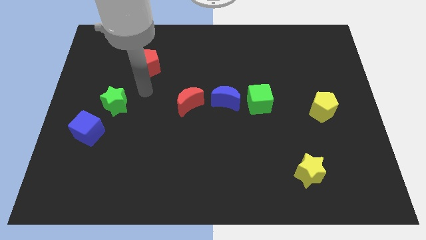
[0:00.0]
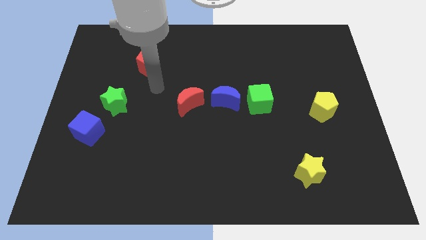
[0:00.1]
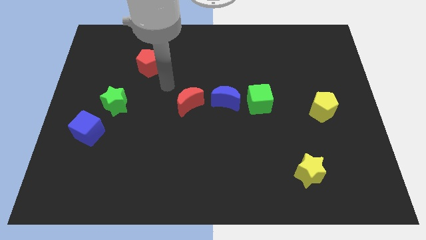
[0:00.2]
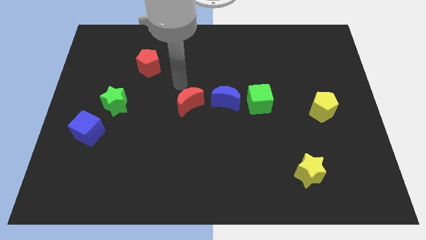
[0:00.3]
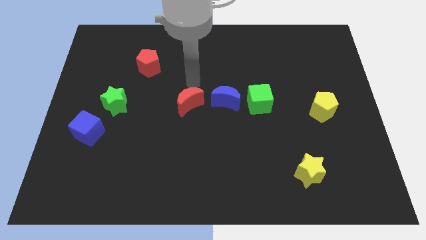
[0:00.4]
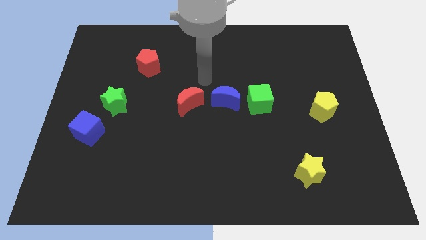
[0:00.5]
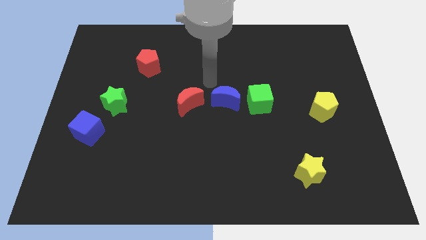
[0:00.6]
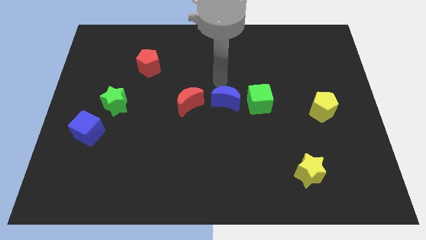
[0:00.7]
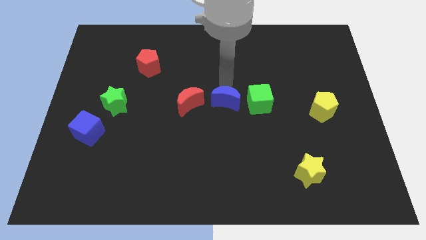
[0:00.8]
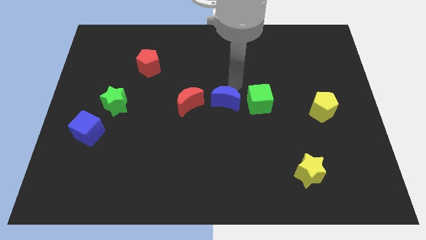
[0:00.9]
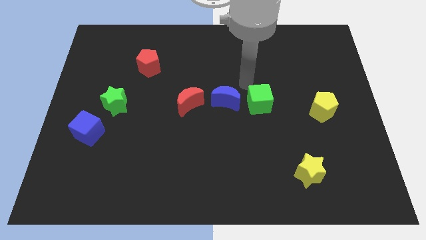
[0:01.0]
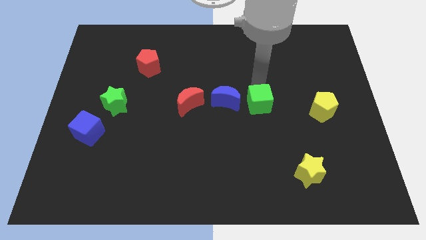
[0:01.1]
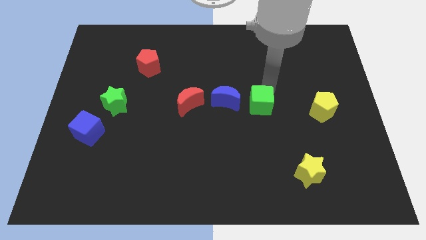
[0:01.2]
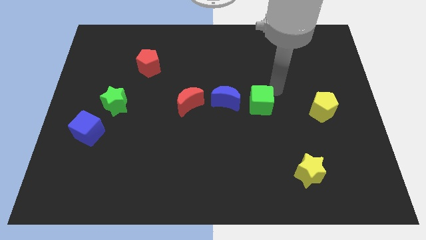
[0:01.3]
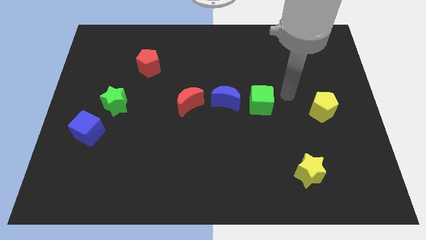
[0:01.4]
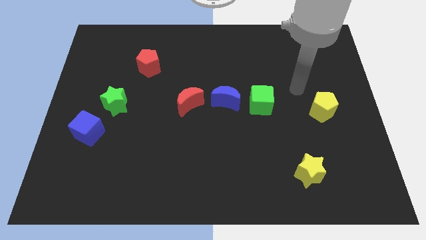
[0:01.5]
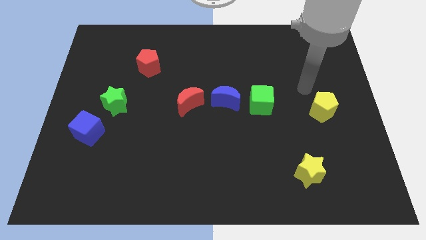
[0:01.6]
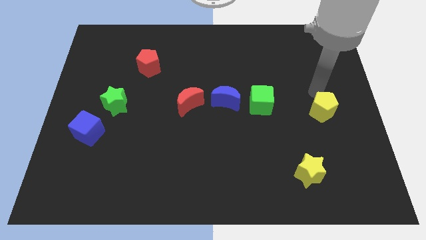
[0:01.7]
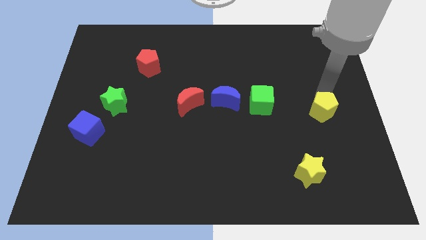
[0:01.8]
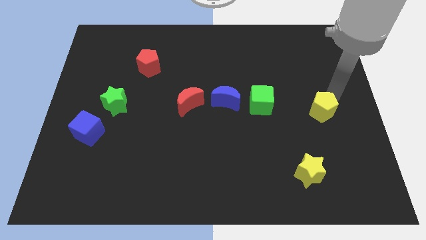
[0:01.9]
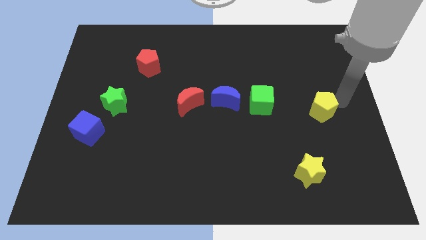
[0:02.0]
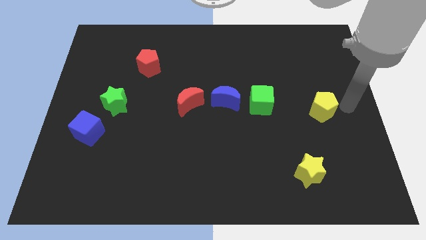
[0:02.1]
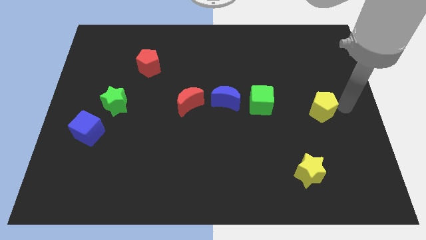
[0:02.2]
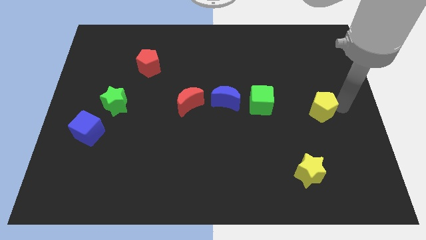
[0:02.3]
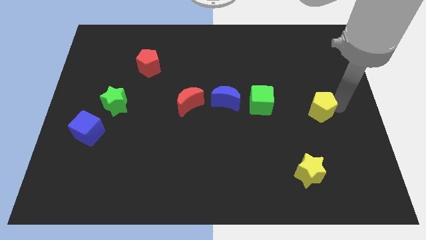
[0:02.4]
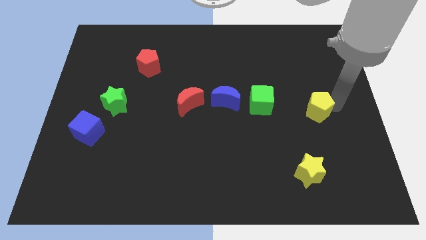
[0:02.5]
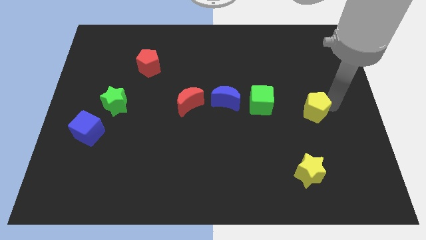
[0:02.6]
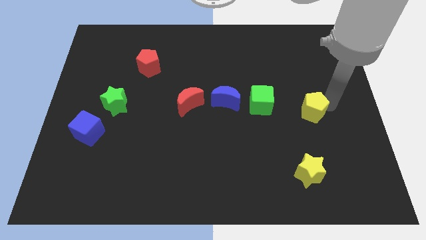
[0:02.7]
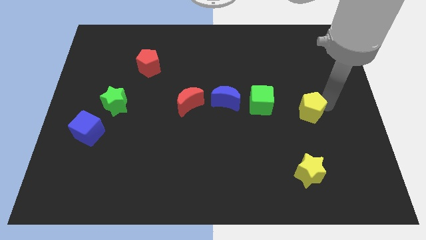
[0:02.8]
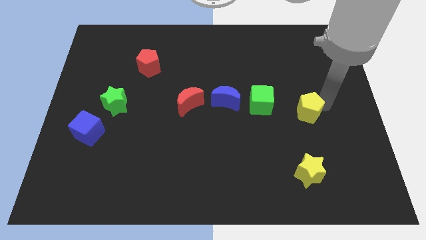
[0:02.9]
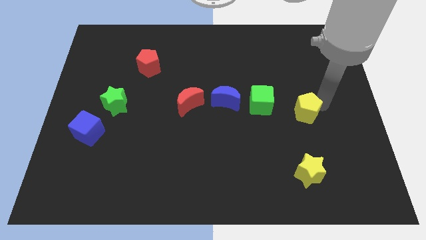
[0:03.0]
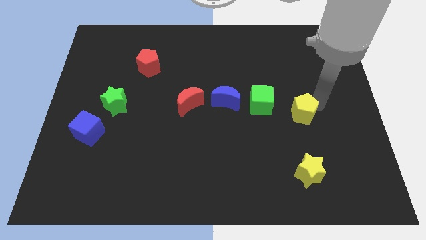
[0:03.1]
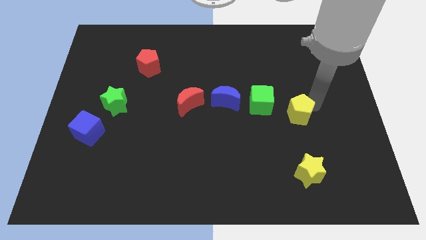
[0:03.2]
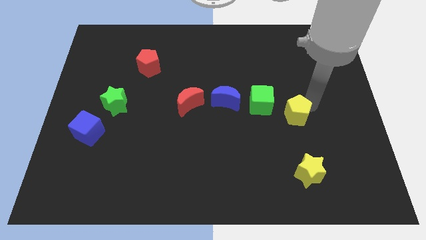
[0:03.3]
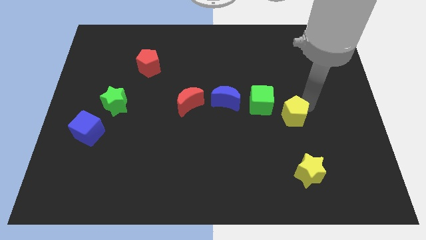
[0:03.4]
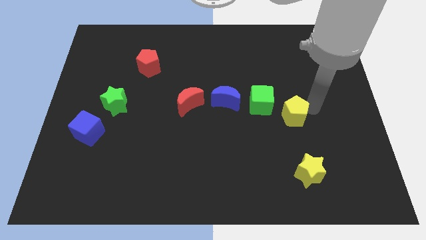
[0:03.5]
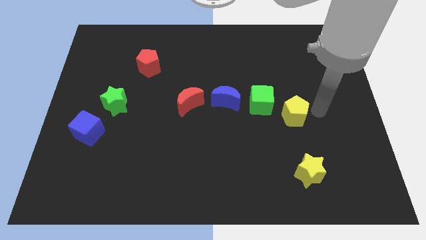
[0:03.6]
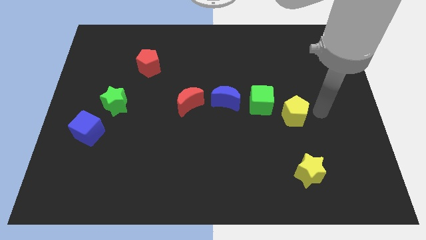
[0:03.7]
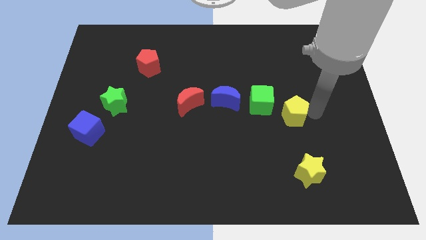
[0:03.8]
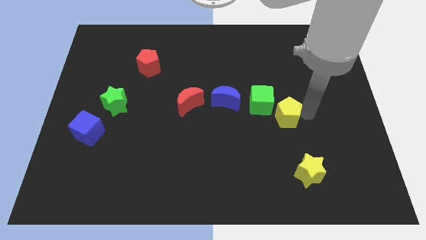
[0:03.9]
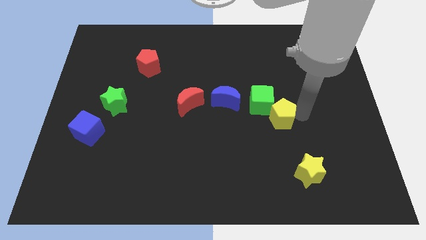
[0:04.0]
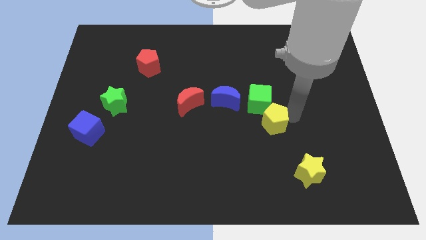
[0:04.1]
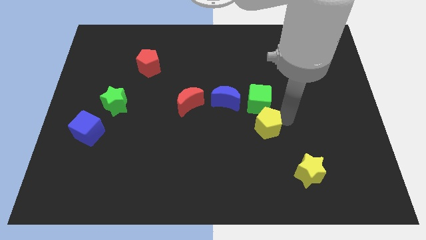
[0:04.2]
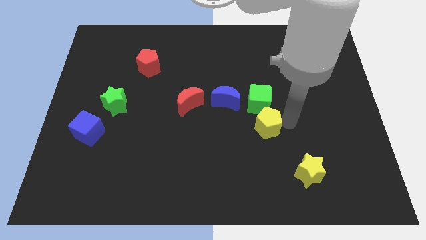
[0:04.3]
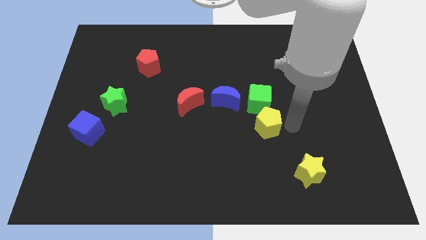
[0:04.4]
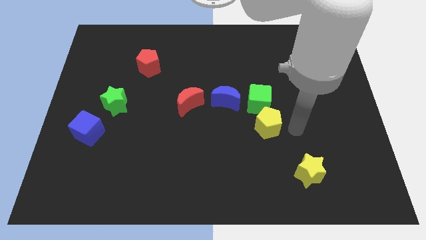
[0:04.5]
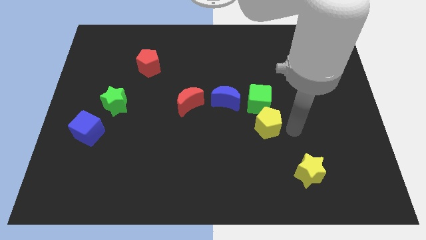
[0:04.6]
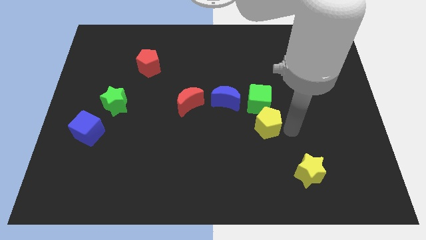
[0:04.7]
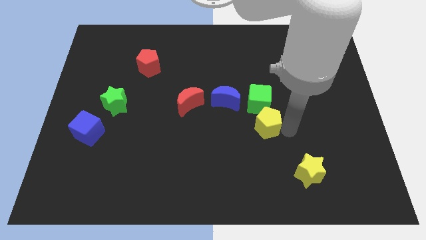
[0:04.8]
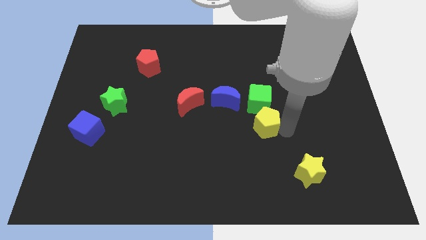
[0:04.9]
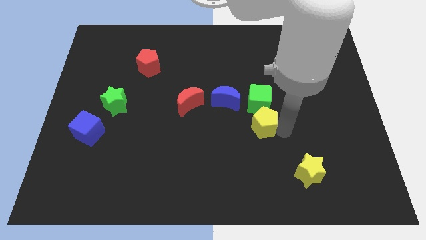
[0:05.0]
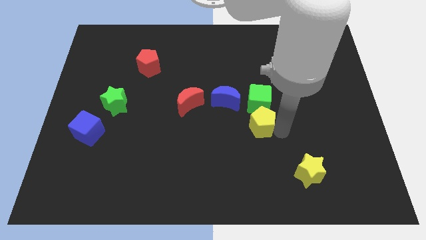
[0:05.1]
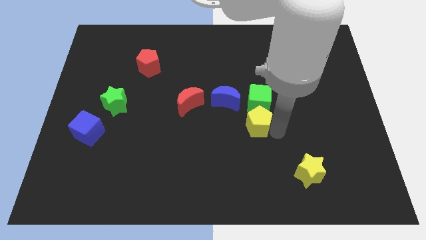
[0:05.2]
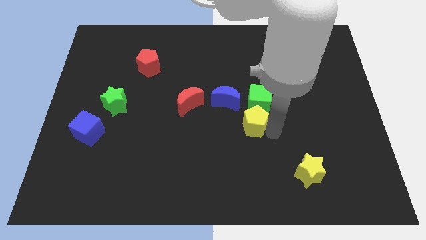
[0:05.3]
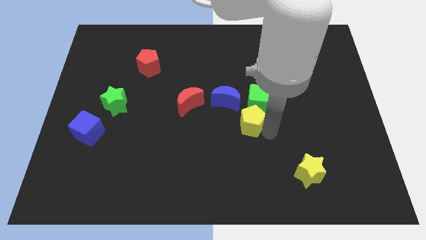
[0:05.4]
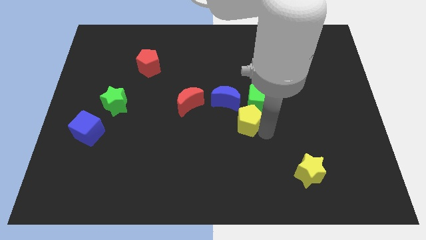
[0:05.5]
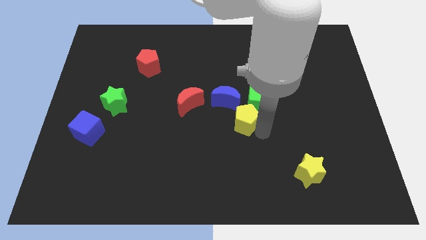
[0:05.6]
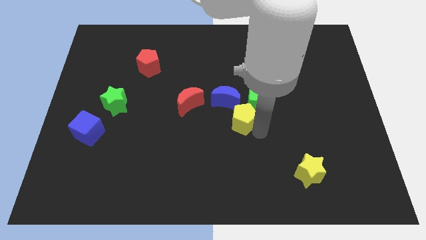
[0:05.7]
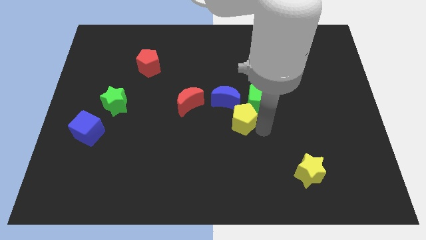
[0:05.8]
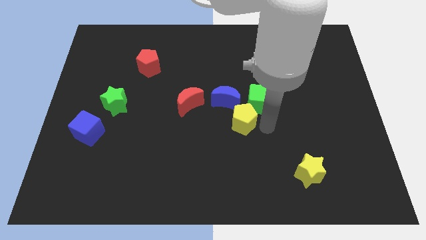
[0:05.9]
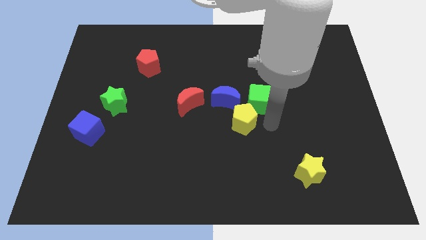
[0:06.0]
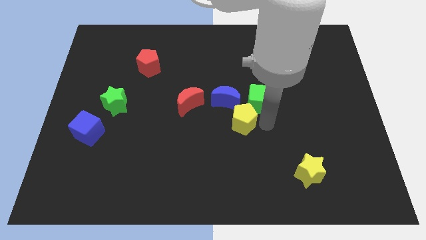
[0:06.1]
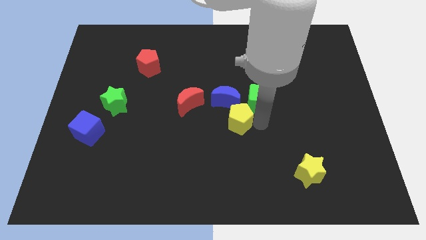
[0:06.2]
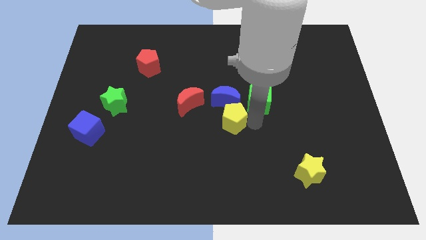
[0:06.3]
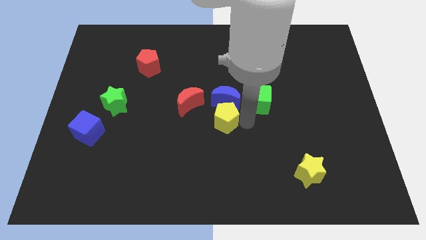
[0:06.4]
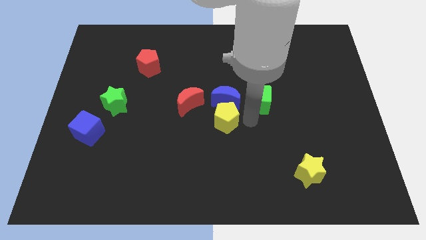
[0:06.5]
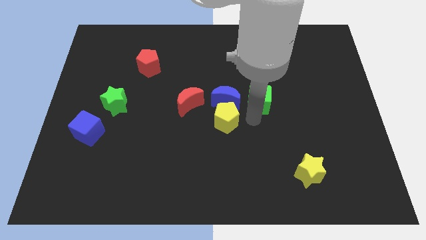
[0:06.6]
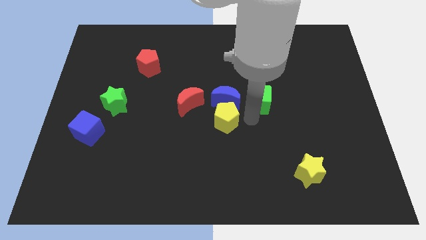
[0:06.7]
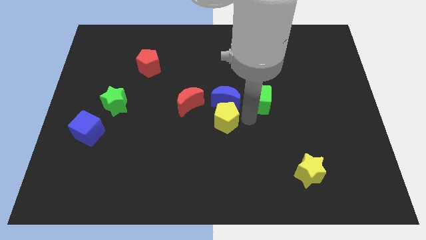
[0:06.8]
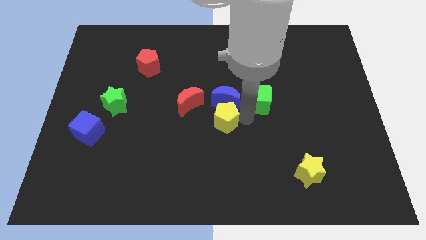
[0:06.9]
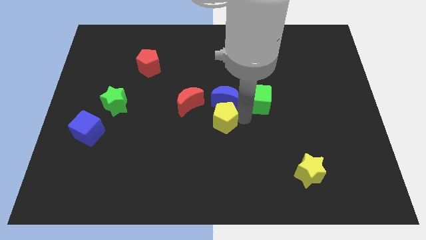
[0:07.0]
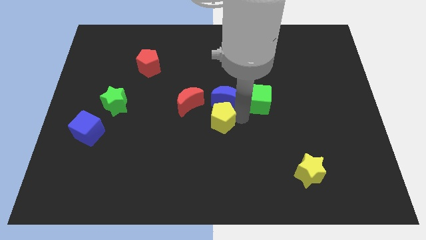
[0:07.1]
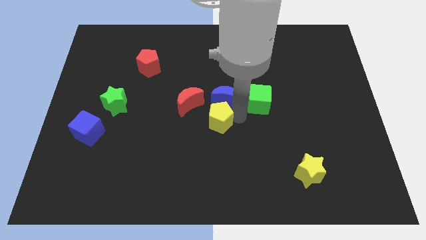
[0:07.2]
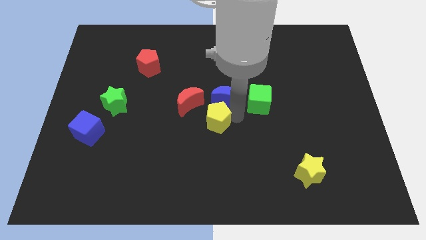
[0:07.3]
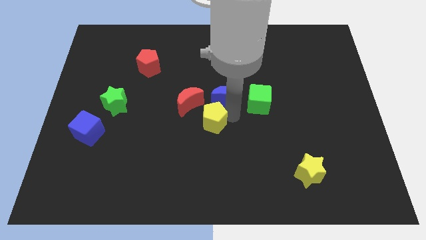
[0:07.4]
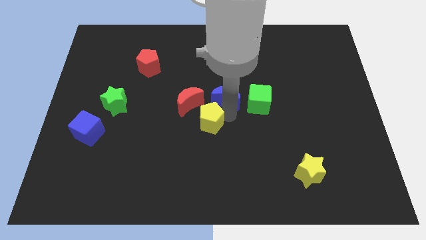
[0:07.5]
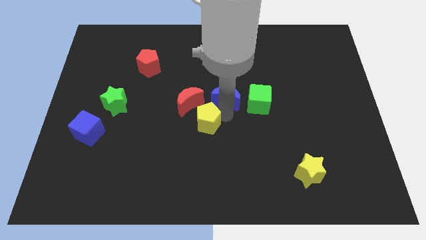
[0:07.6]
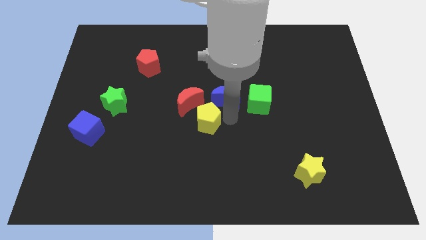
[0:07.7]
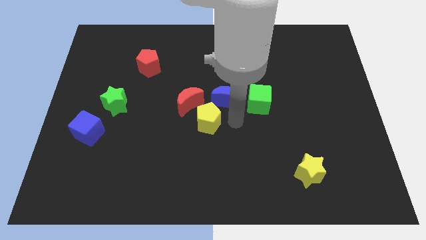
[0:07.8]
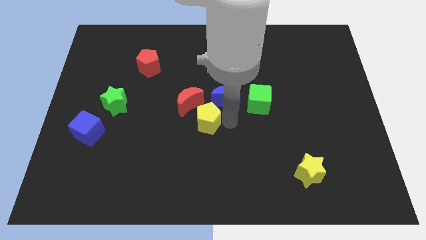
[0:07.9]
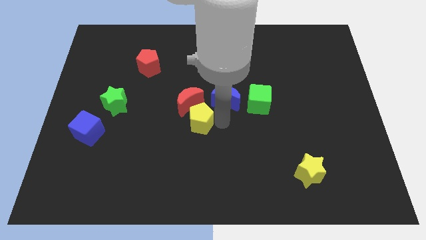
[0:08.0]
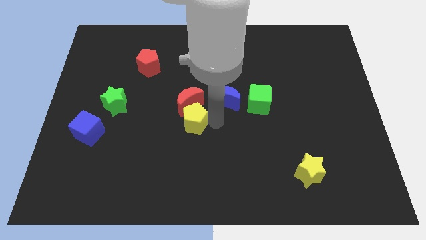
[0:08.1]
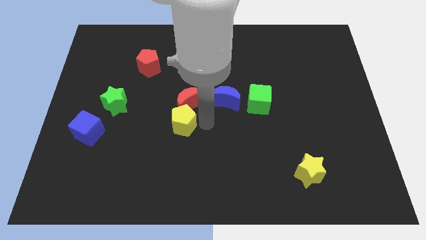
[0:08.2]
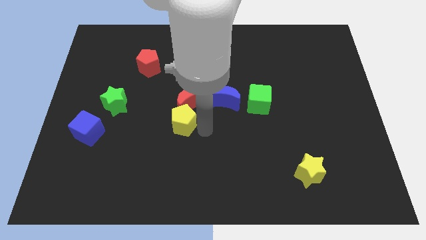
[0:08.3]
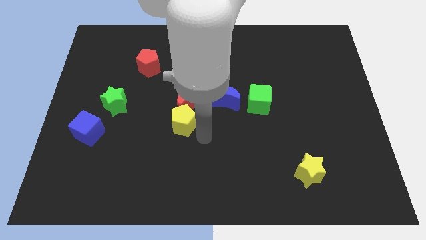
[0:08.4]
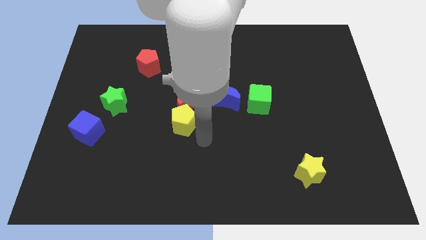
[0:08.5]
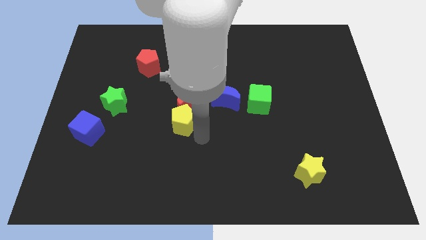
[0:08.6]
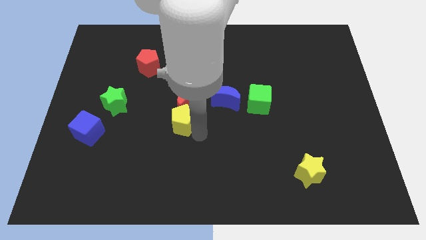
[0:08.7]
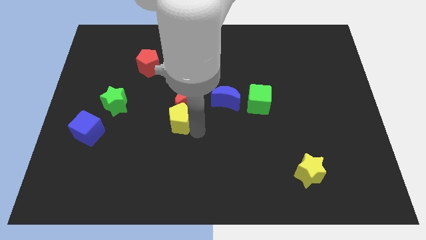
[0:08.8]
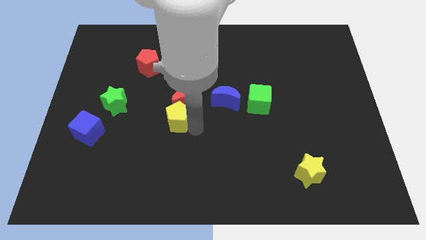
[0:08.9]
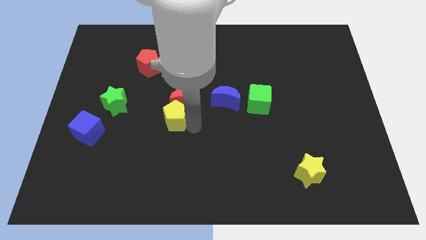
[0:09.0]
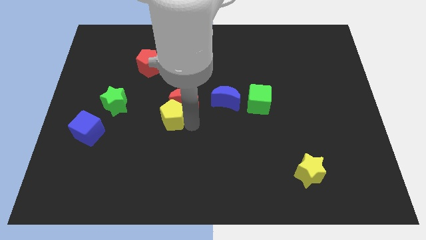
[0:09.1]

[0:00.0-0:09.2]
push the yellow pentagon to the right of the green star
